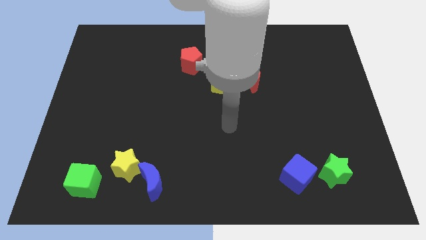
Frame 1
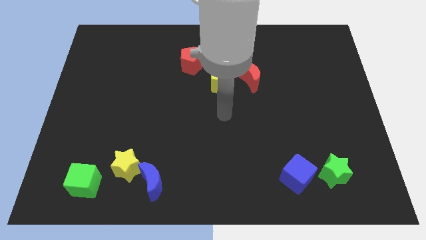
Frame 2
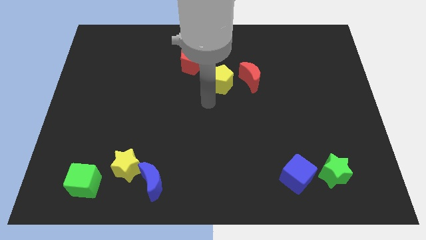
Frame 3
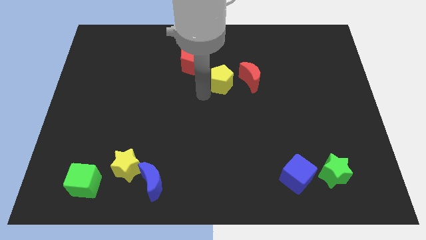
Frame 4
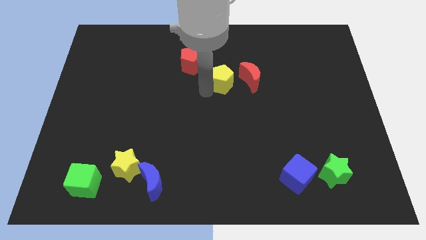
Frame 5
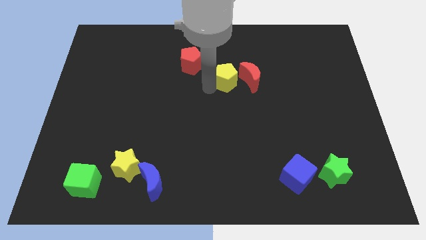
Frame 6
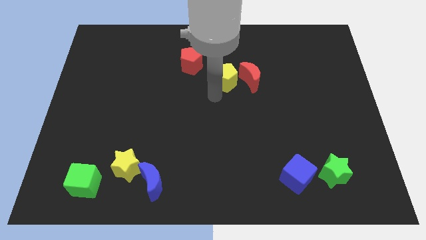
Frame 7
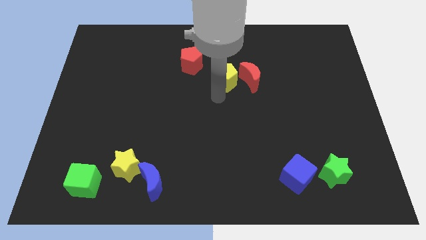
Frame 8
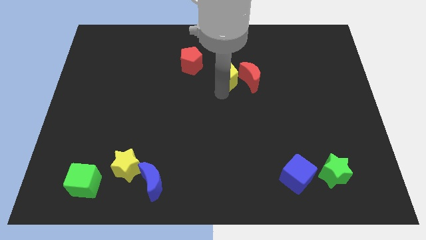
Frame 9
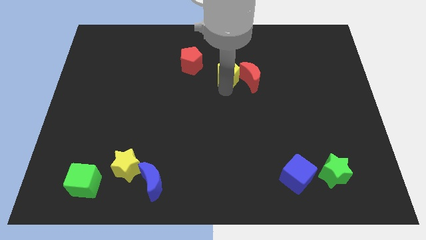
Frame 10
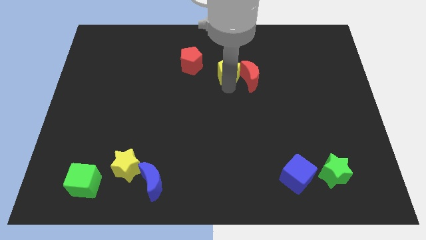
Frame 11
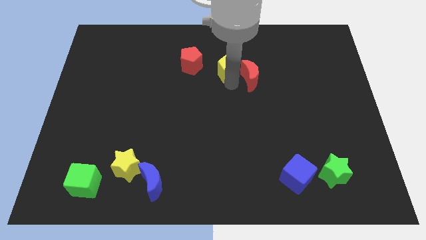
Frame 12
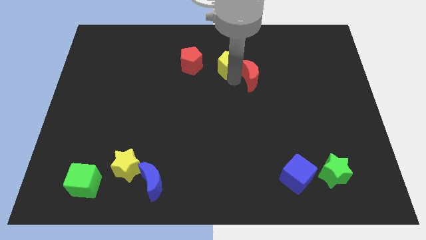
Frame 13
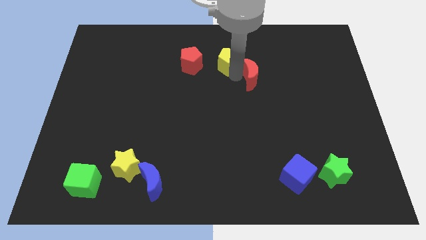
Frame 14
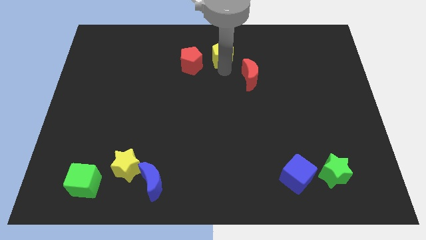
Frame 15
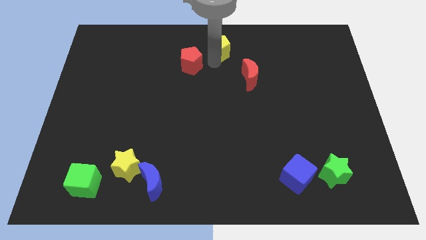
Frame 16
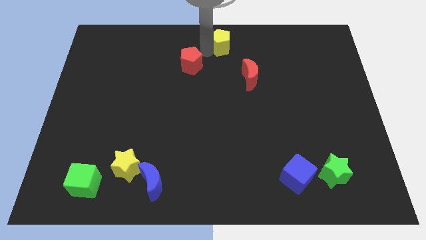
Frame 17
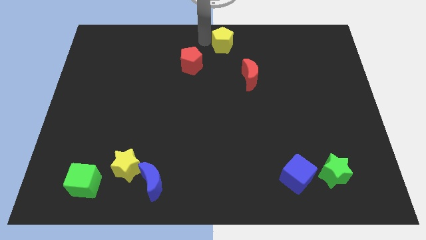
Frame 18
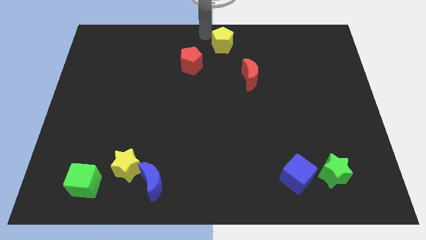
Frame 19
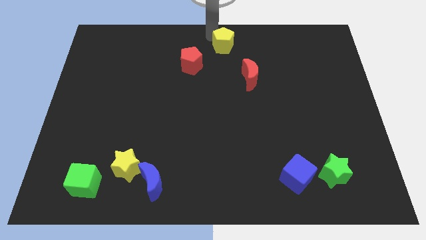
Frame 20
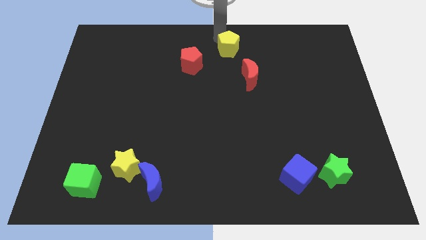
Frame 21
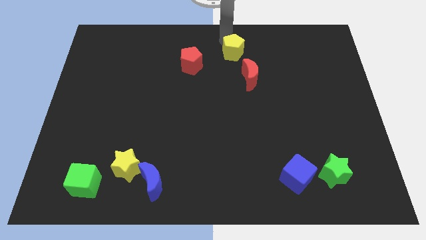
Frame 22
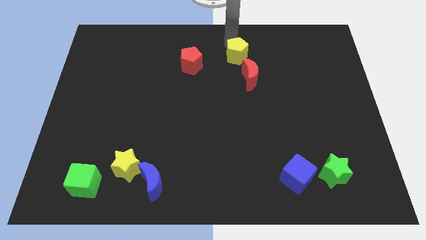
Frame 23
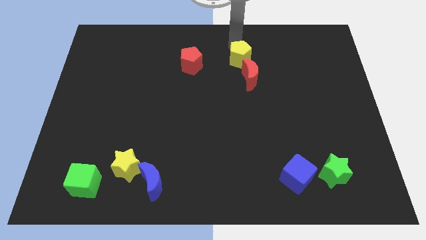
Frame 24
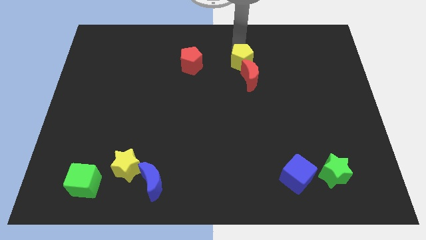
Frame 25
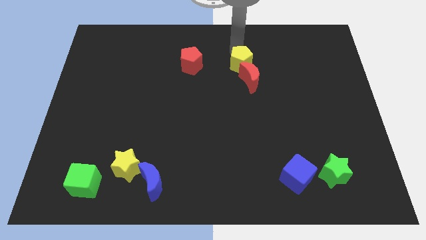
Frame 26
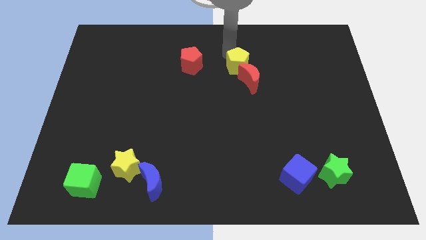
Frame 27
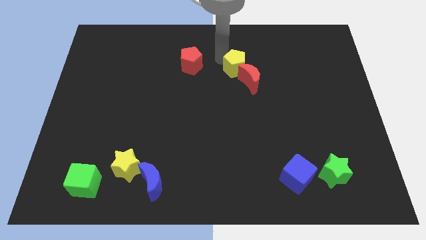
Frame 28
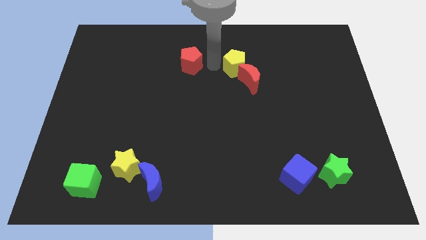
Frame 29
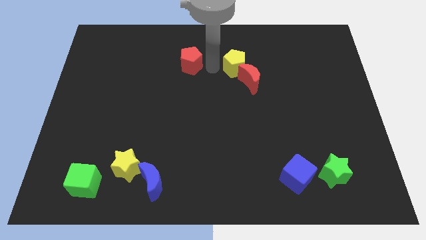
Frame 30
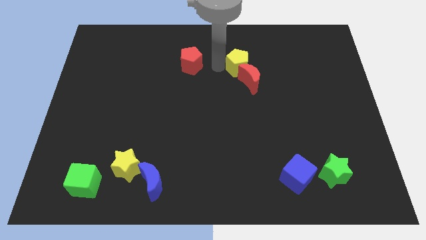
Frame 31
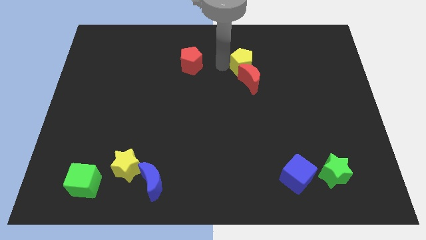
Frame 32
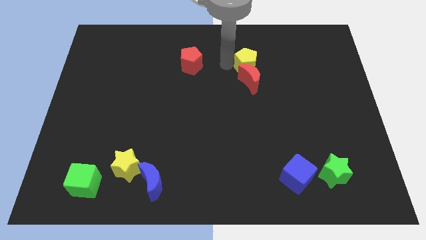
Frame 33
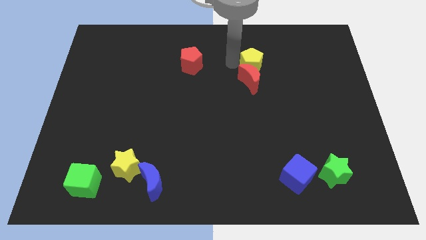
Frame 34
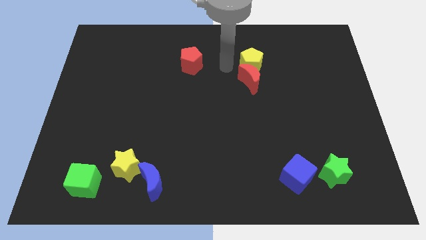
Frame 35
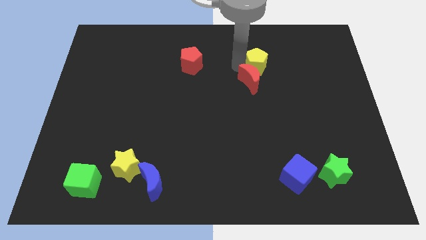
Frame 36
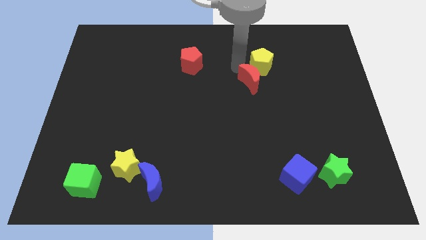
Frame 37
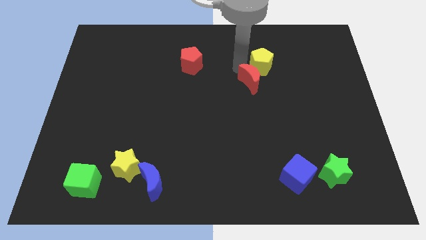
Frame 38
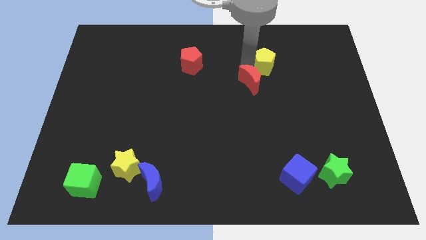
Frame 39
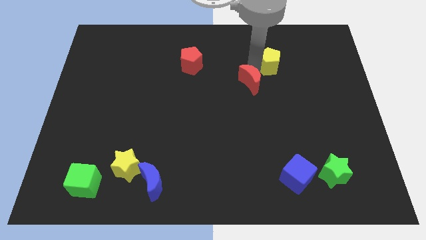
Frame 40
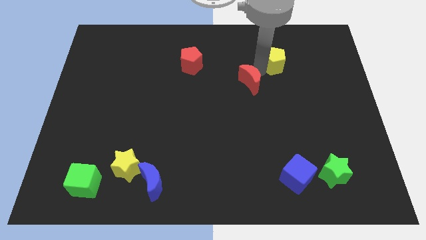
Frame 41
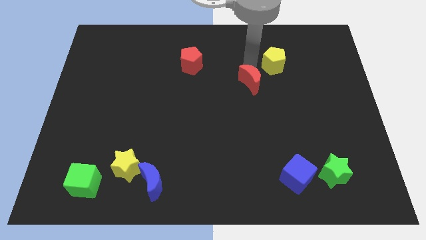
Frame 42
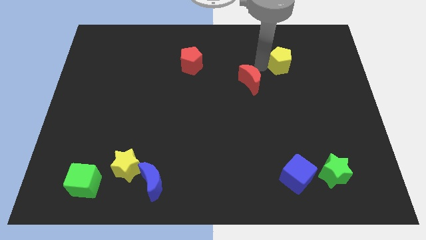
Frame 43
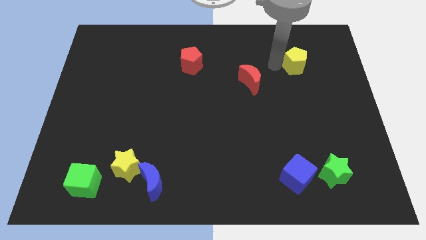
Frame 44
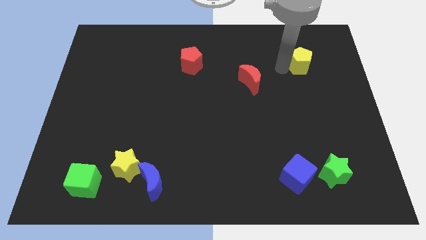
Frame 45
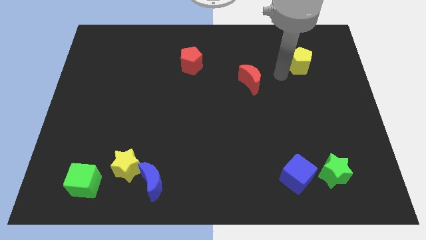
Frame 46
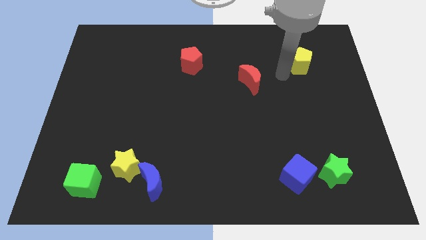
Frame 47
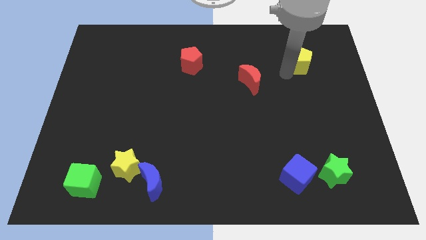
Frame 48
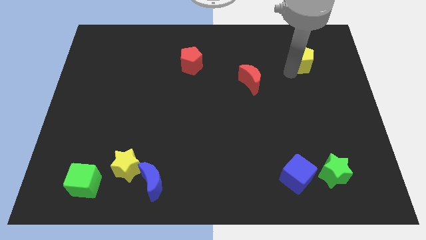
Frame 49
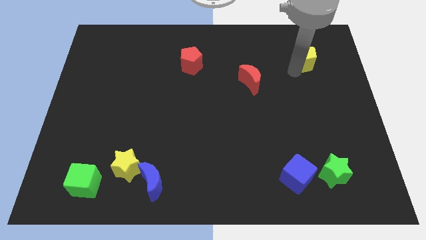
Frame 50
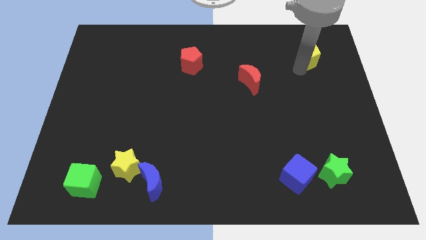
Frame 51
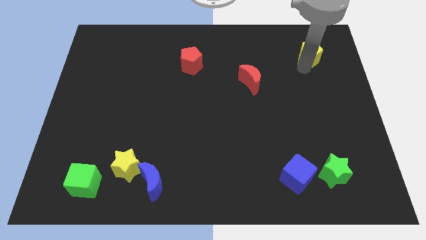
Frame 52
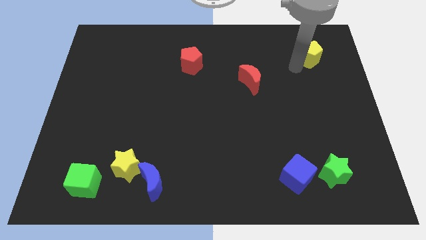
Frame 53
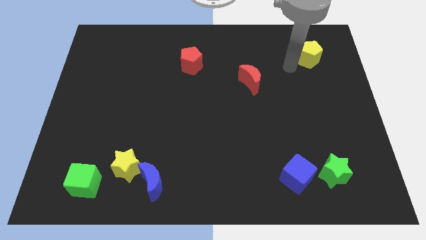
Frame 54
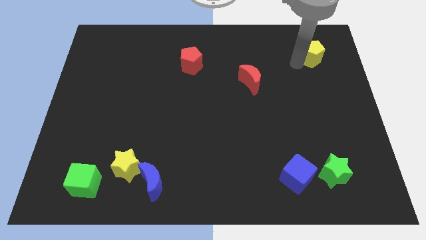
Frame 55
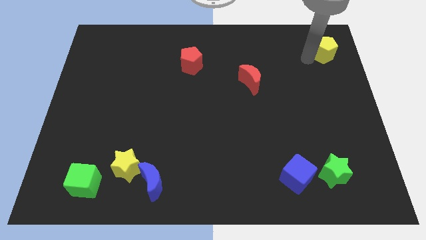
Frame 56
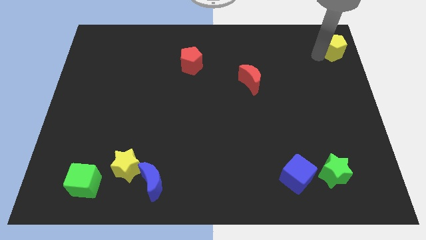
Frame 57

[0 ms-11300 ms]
put the yellow pentagon to the top right corner

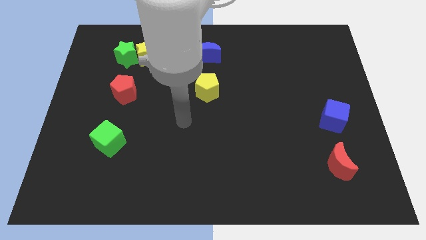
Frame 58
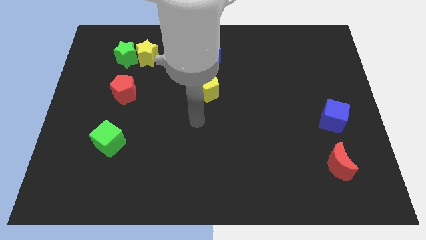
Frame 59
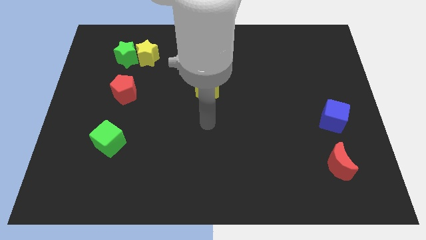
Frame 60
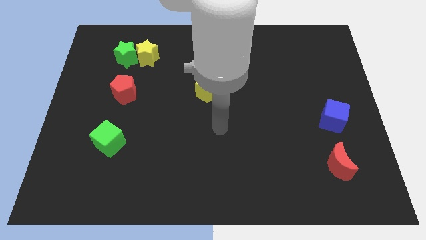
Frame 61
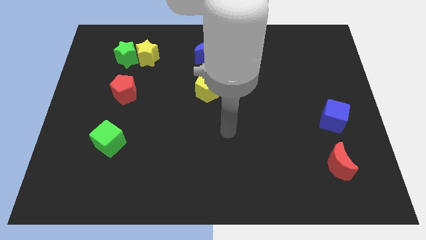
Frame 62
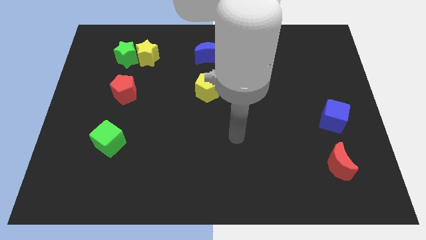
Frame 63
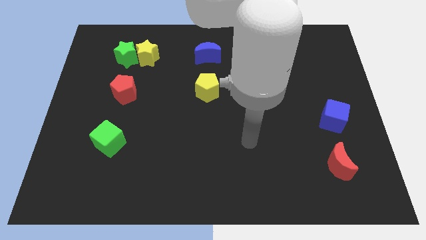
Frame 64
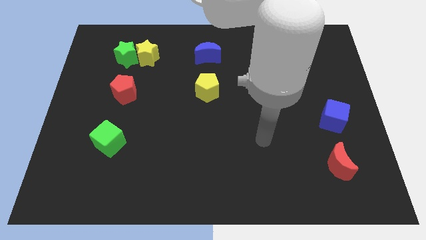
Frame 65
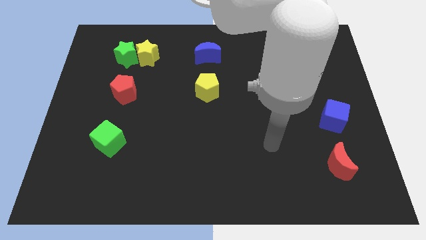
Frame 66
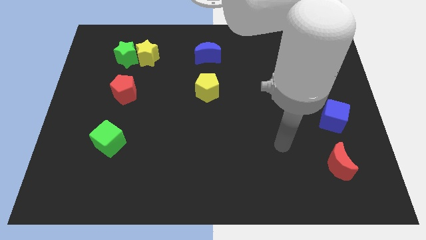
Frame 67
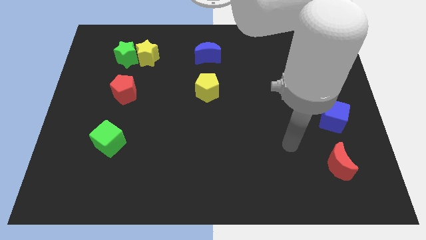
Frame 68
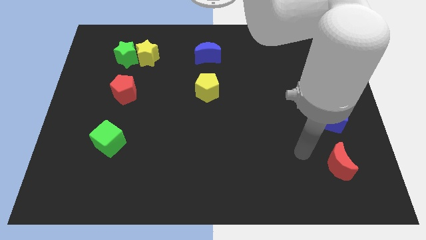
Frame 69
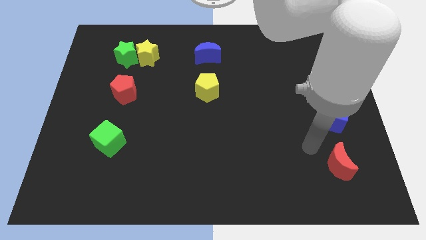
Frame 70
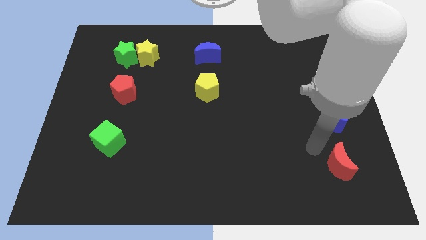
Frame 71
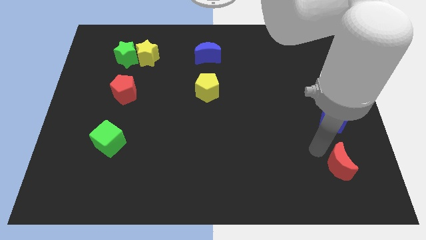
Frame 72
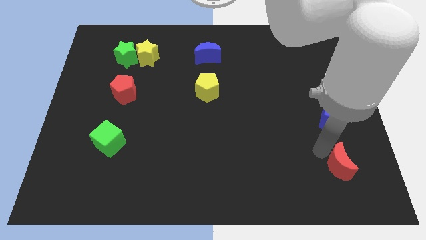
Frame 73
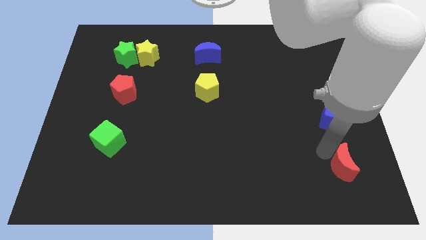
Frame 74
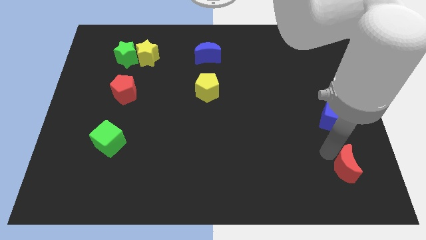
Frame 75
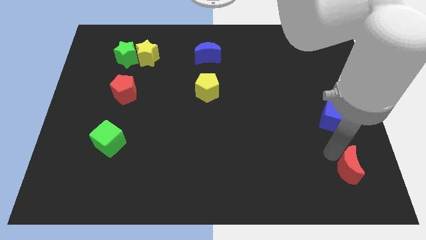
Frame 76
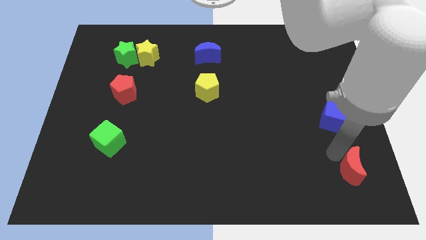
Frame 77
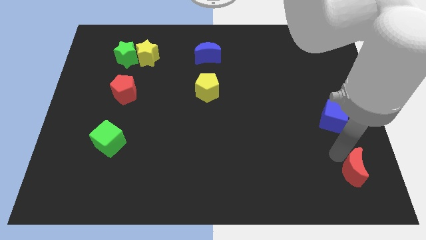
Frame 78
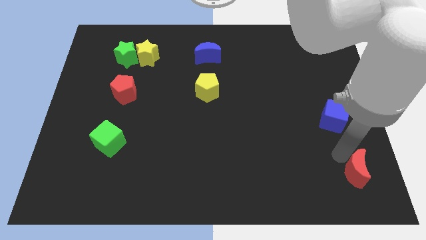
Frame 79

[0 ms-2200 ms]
slide the red moon to the bottom right
